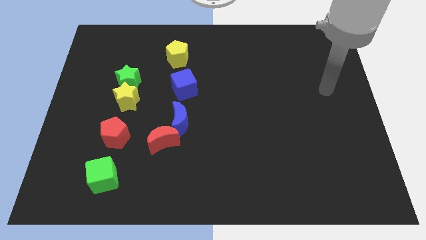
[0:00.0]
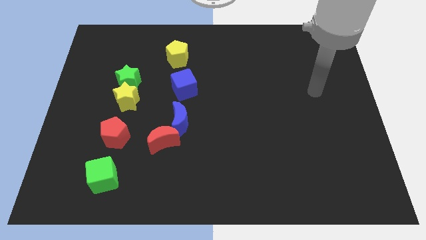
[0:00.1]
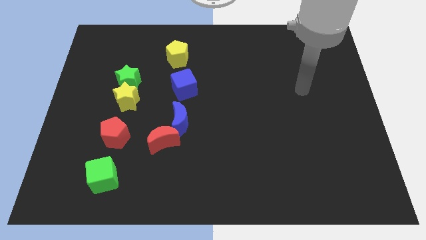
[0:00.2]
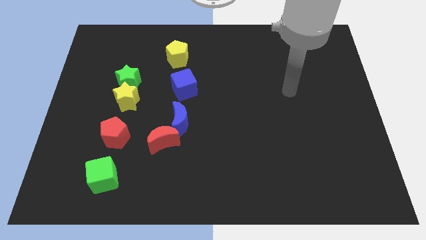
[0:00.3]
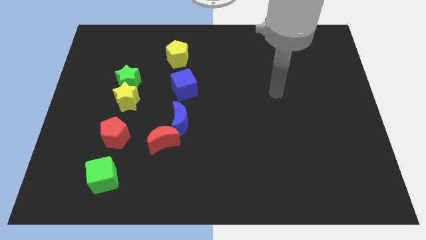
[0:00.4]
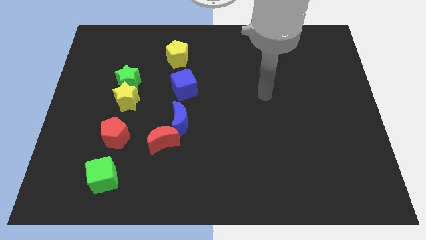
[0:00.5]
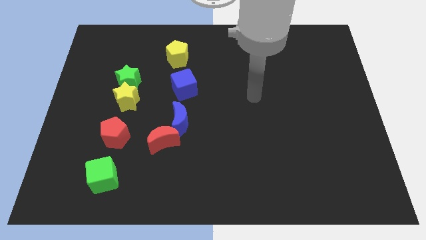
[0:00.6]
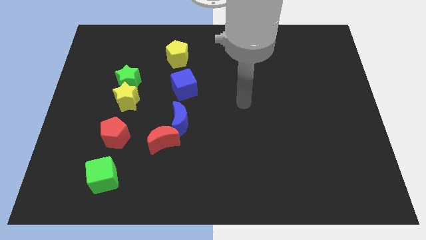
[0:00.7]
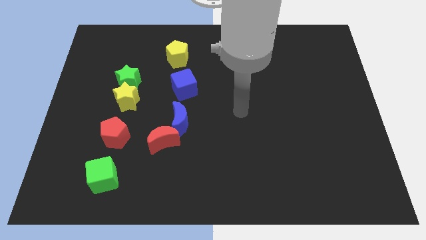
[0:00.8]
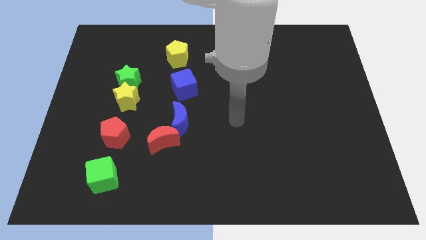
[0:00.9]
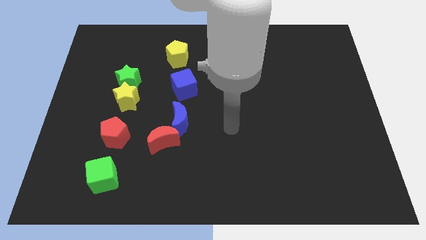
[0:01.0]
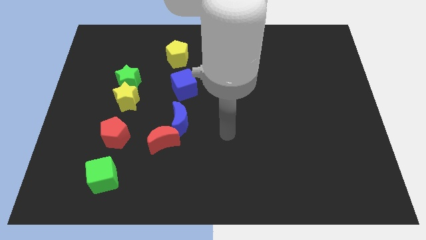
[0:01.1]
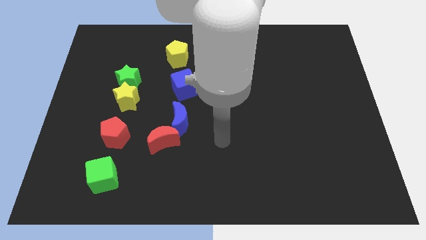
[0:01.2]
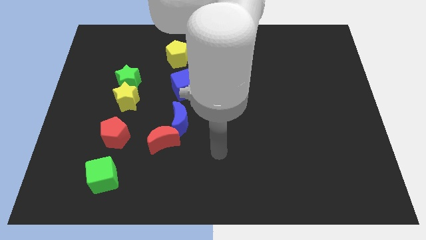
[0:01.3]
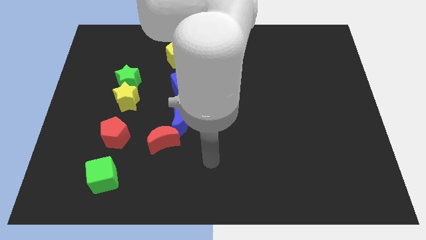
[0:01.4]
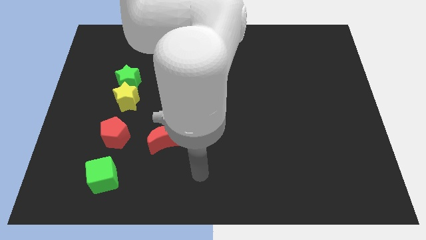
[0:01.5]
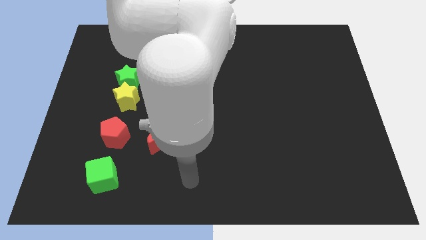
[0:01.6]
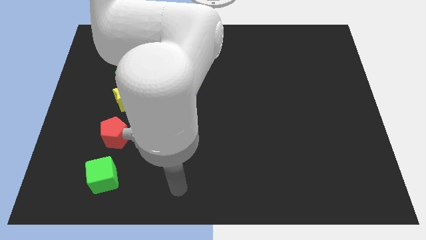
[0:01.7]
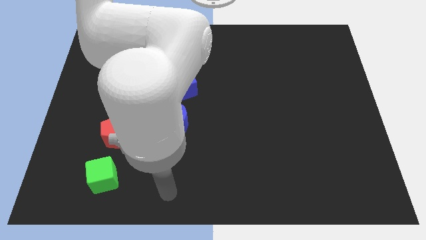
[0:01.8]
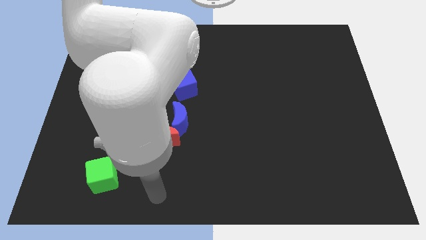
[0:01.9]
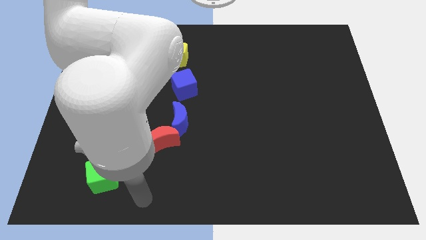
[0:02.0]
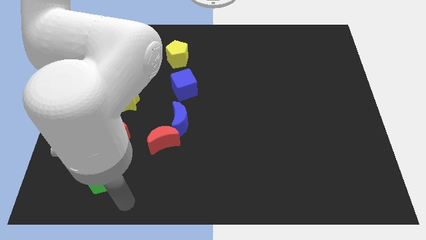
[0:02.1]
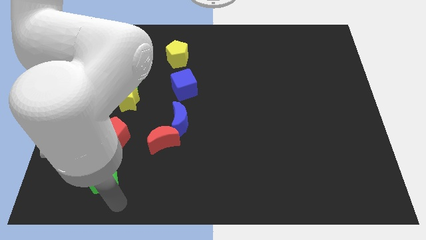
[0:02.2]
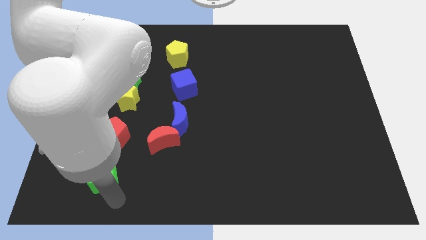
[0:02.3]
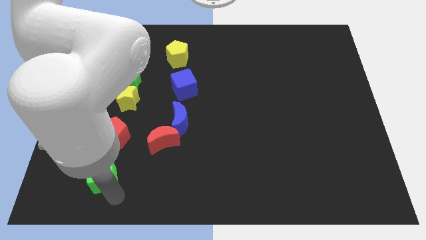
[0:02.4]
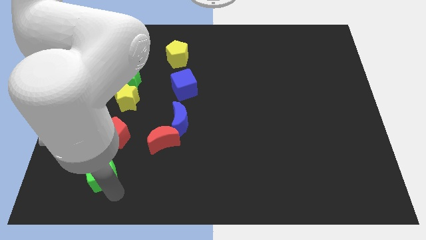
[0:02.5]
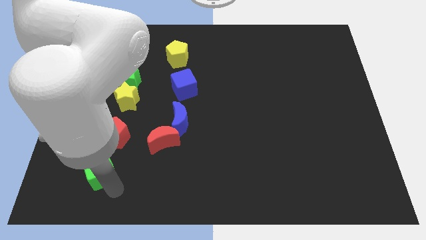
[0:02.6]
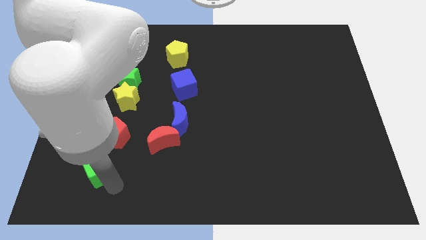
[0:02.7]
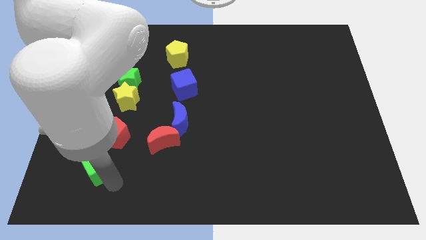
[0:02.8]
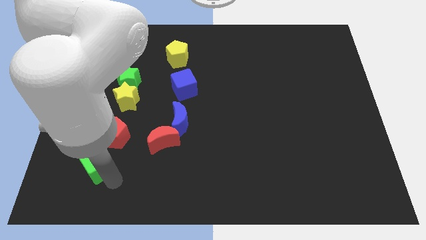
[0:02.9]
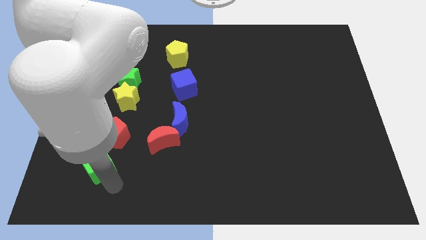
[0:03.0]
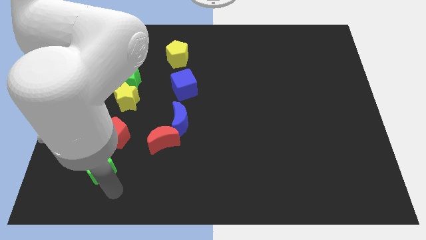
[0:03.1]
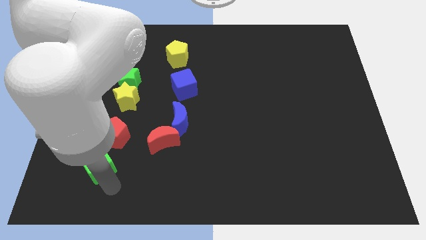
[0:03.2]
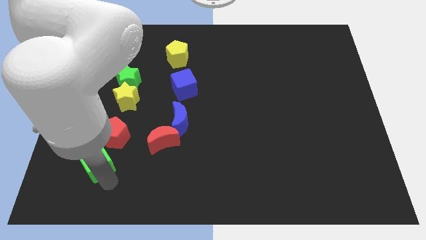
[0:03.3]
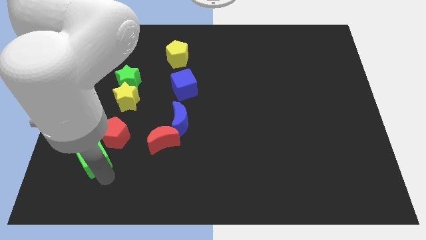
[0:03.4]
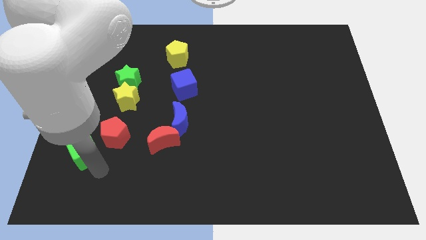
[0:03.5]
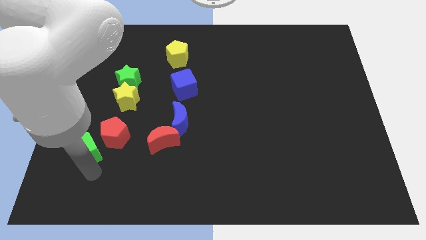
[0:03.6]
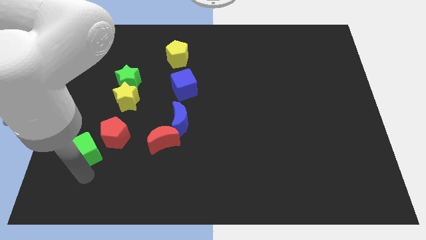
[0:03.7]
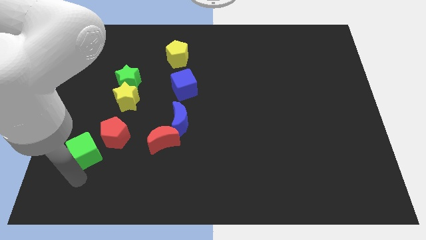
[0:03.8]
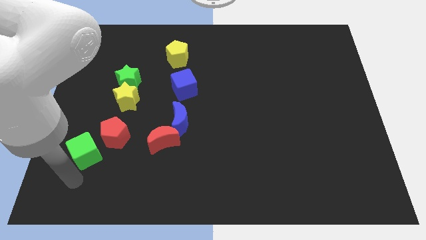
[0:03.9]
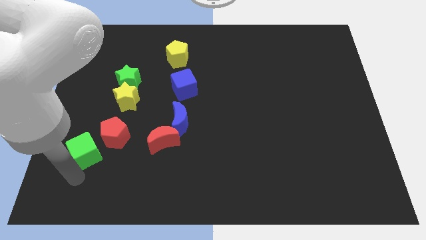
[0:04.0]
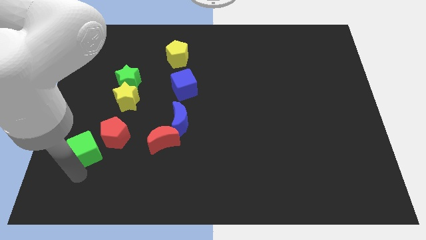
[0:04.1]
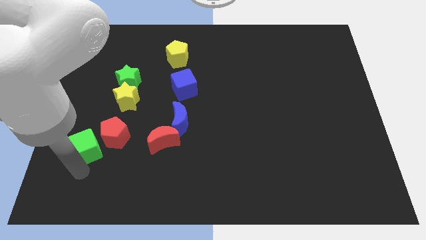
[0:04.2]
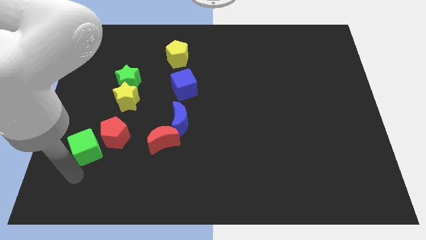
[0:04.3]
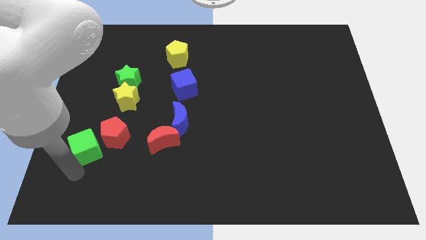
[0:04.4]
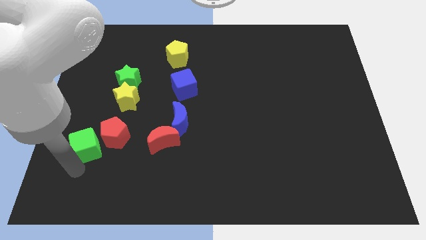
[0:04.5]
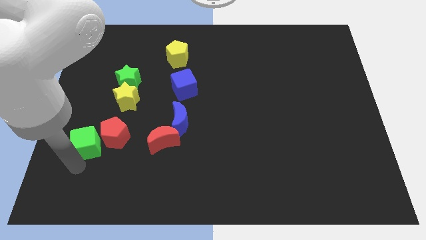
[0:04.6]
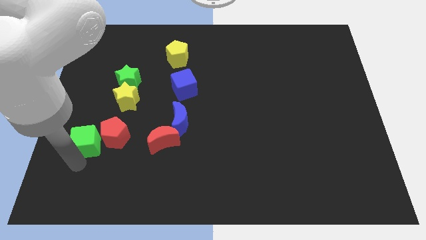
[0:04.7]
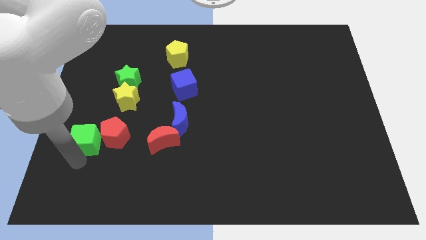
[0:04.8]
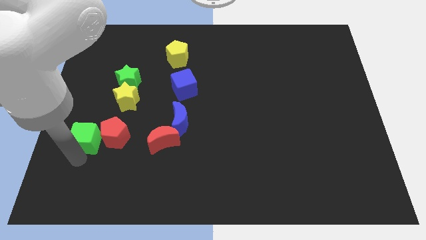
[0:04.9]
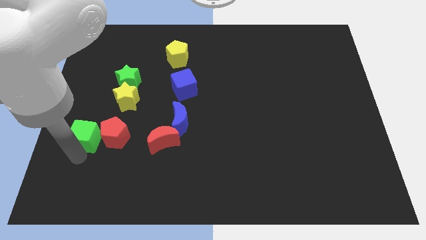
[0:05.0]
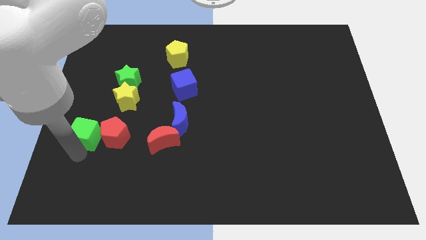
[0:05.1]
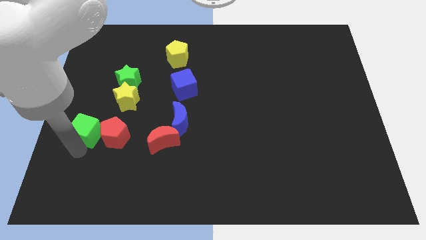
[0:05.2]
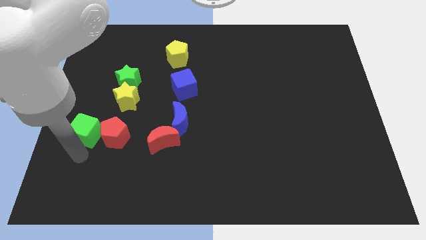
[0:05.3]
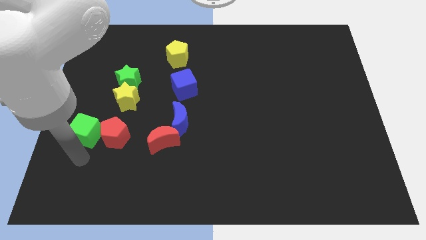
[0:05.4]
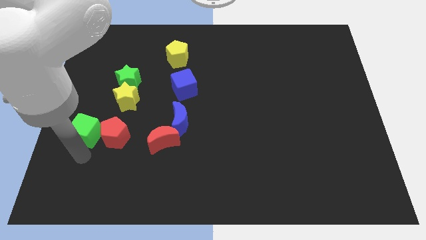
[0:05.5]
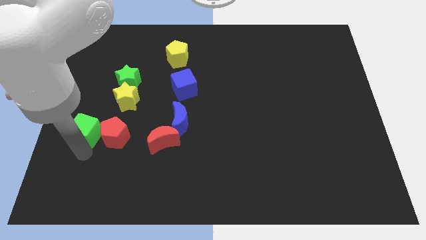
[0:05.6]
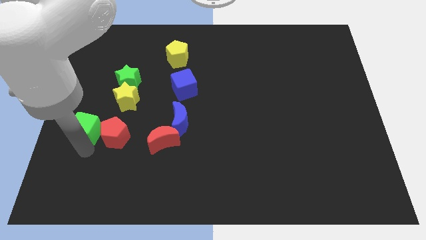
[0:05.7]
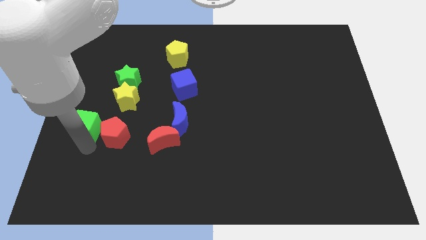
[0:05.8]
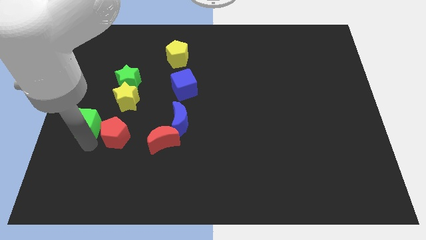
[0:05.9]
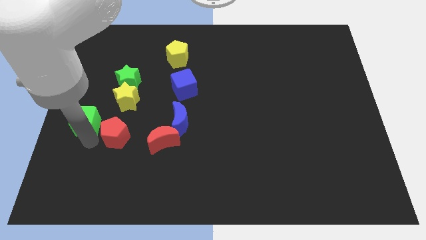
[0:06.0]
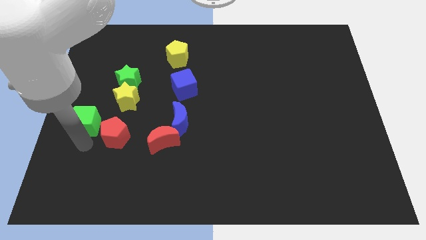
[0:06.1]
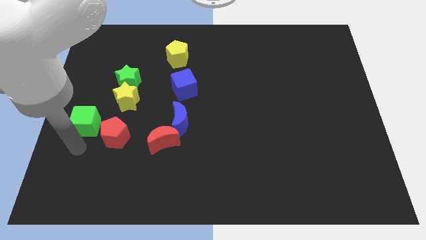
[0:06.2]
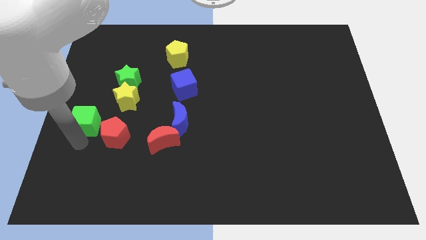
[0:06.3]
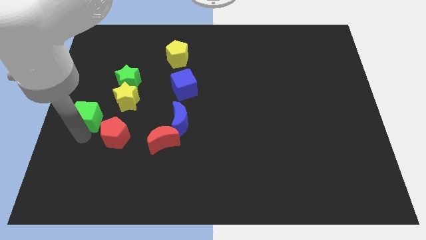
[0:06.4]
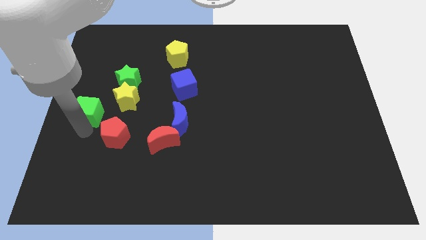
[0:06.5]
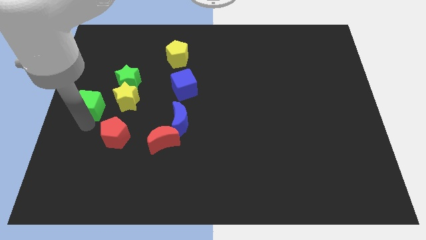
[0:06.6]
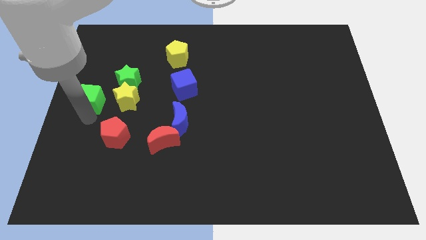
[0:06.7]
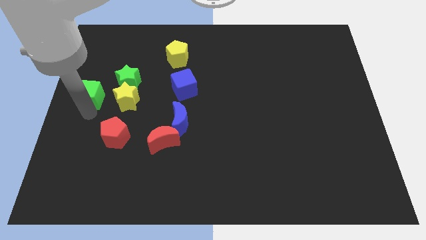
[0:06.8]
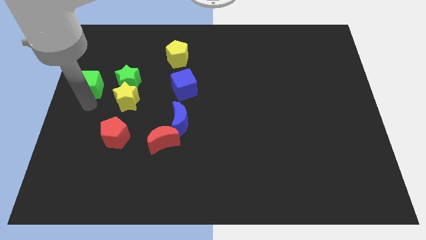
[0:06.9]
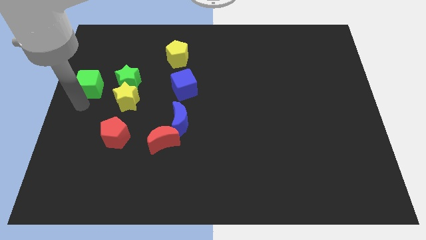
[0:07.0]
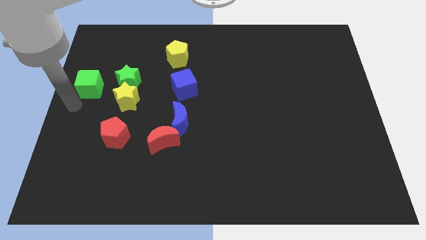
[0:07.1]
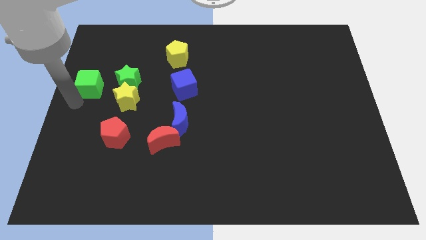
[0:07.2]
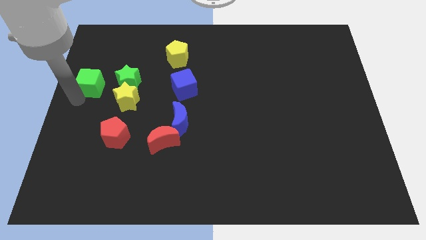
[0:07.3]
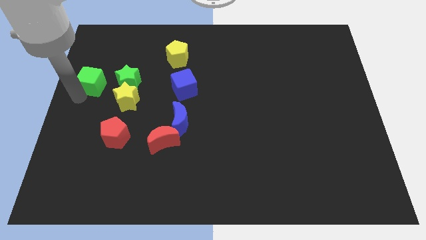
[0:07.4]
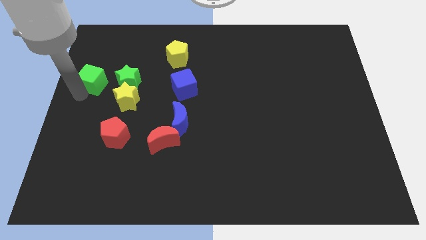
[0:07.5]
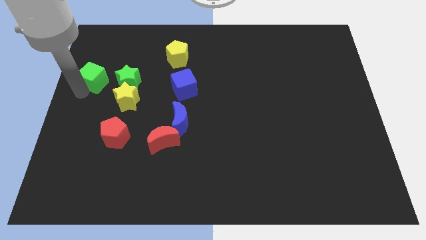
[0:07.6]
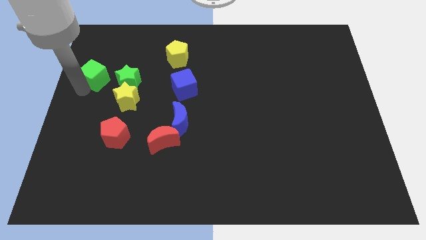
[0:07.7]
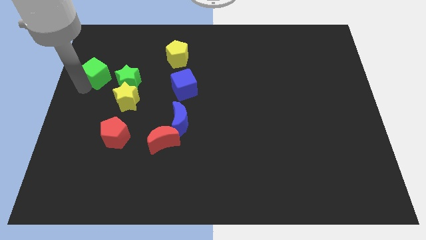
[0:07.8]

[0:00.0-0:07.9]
slide the green cube to the top left of the green star
